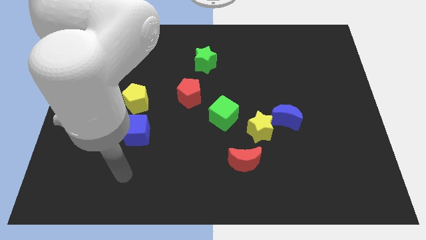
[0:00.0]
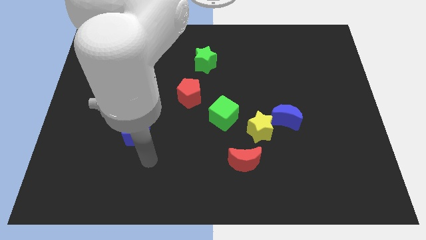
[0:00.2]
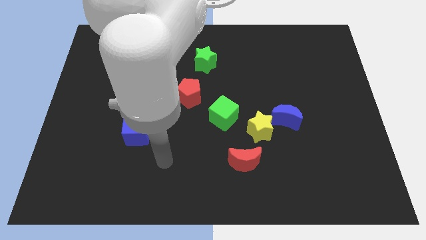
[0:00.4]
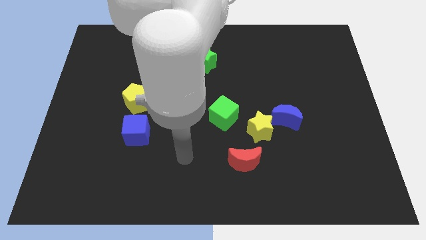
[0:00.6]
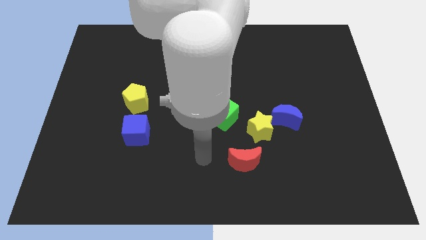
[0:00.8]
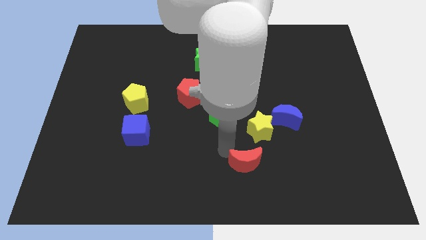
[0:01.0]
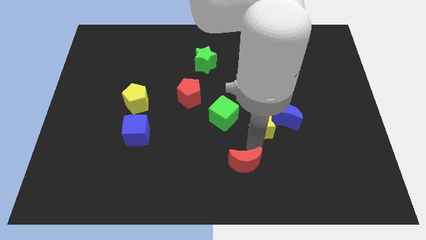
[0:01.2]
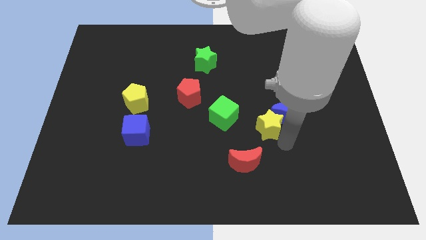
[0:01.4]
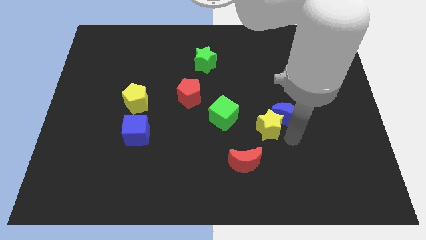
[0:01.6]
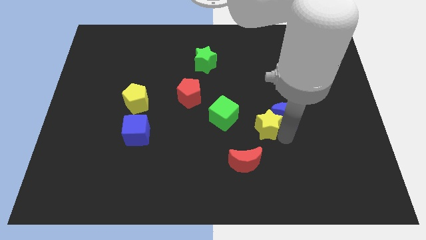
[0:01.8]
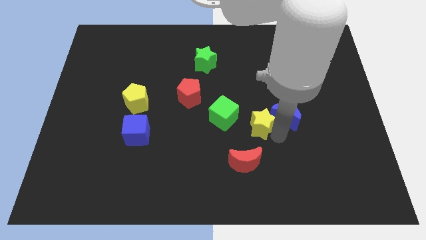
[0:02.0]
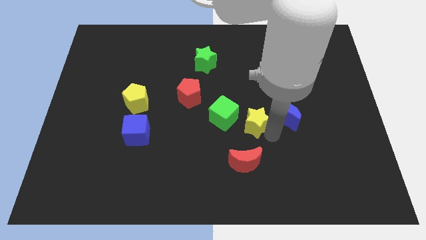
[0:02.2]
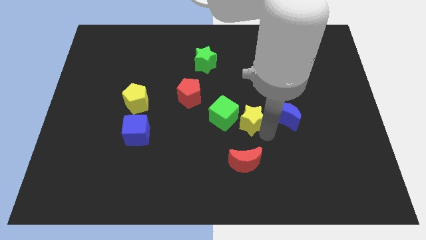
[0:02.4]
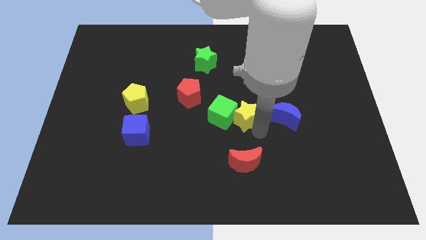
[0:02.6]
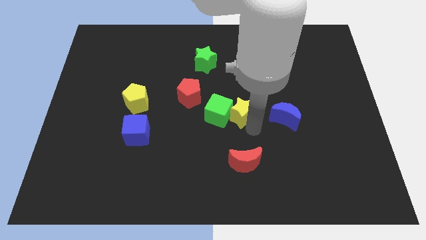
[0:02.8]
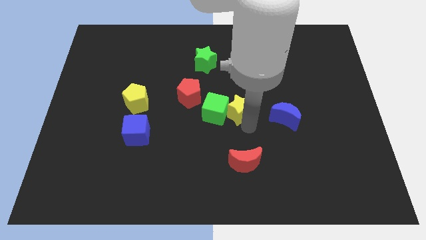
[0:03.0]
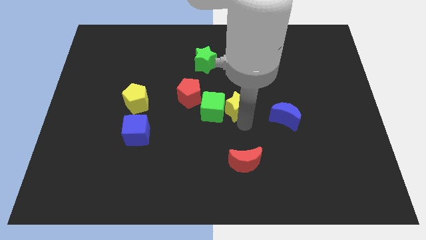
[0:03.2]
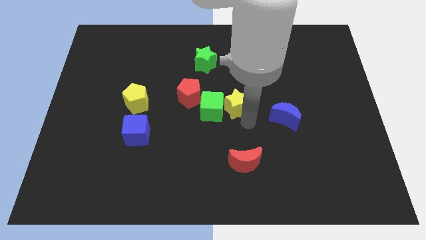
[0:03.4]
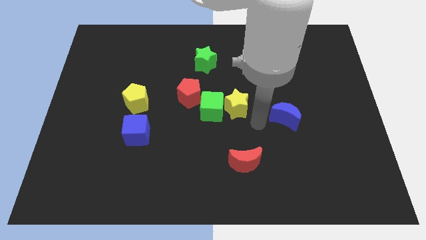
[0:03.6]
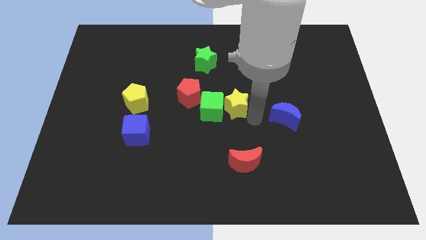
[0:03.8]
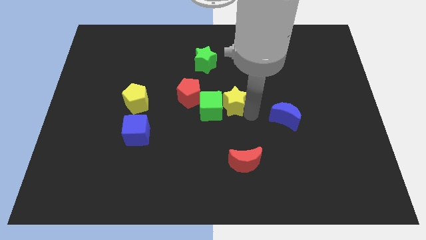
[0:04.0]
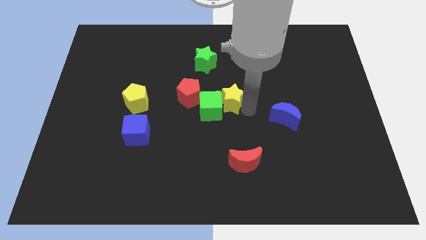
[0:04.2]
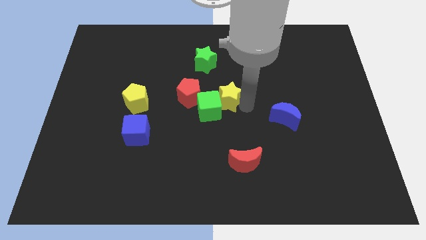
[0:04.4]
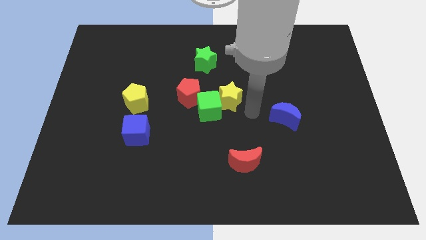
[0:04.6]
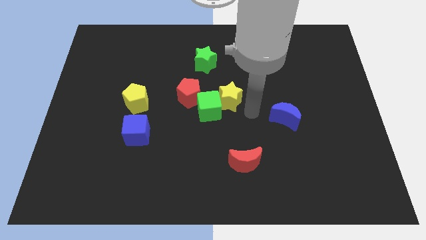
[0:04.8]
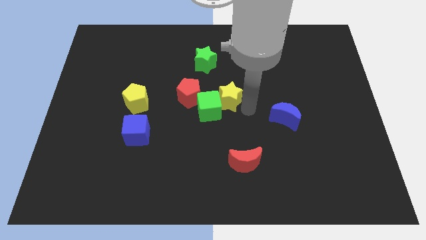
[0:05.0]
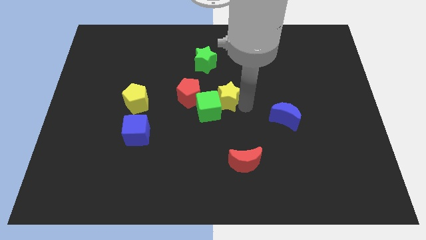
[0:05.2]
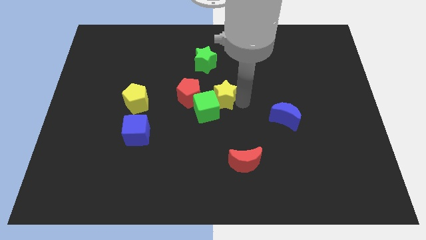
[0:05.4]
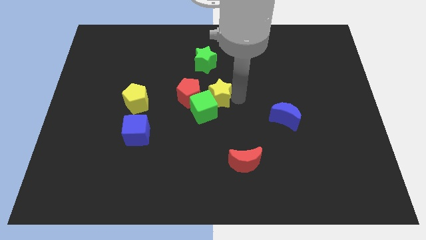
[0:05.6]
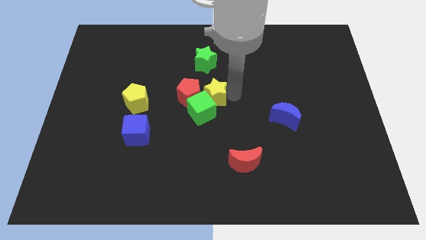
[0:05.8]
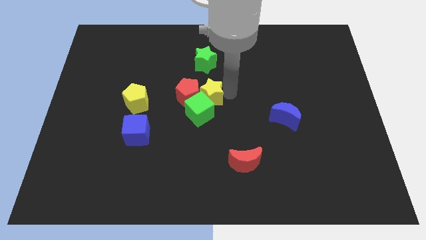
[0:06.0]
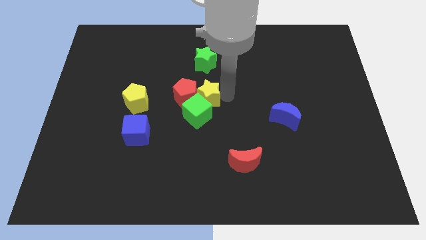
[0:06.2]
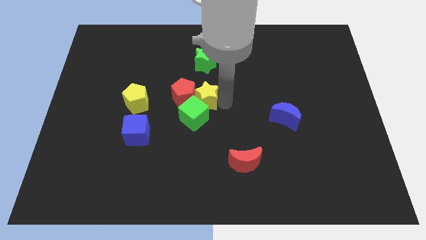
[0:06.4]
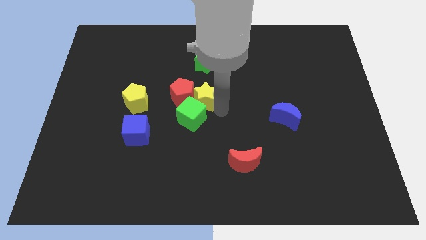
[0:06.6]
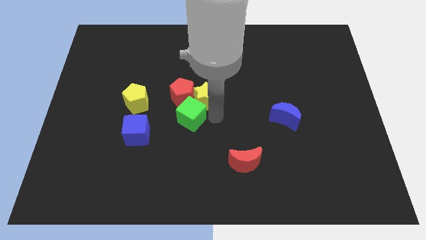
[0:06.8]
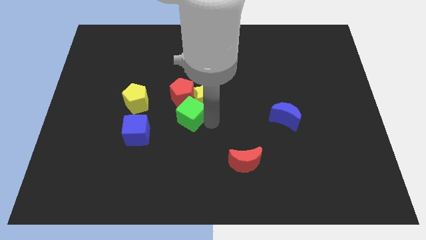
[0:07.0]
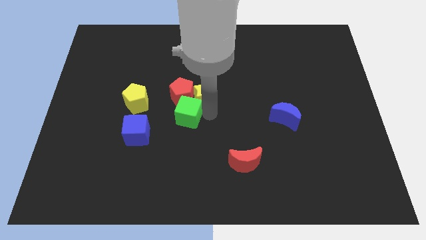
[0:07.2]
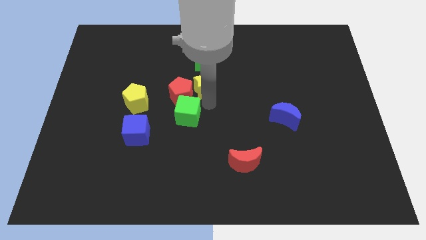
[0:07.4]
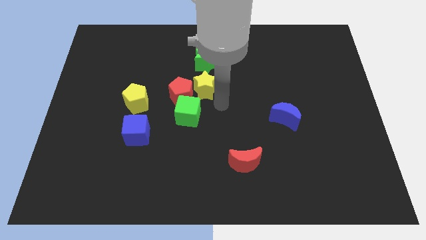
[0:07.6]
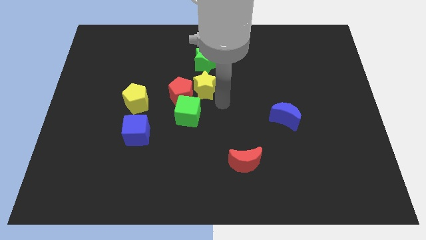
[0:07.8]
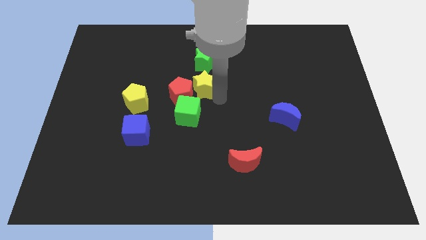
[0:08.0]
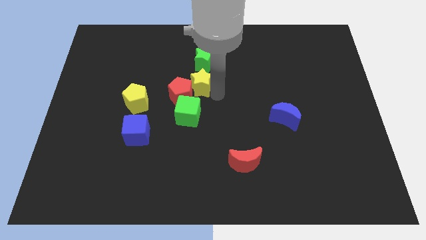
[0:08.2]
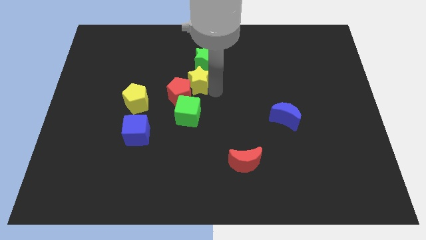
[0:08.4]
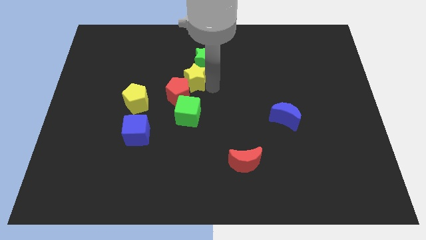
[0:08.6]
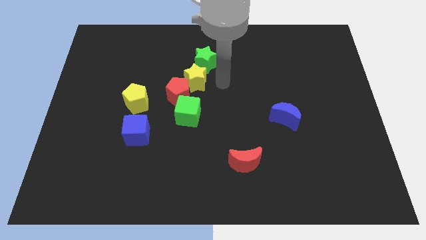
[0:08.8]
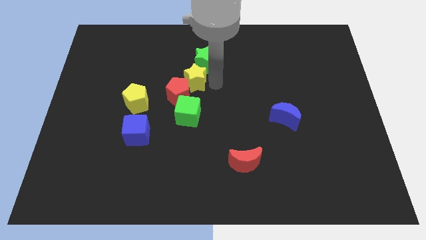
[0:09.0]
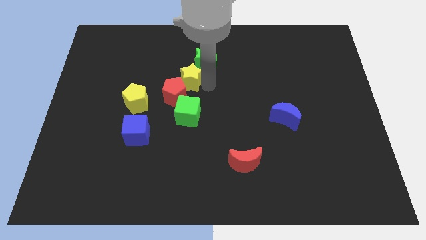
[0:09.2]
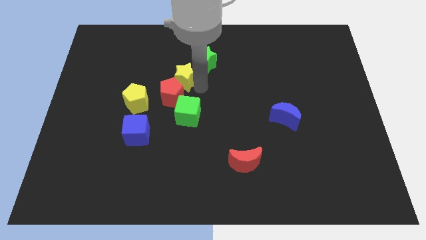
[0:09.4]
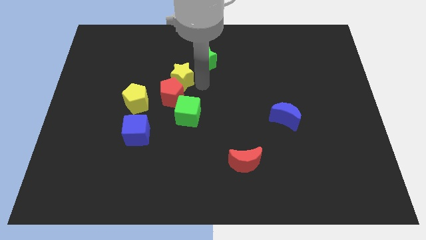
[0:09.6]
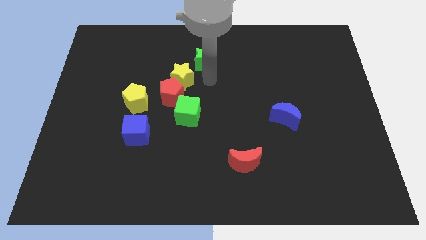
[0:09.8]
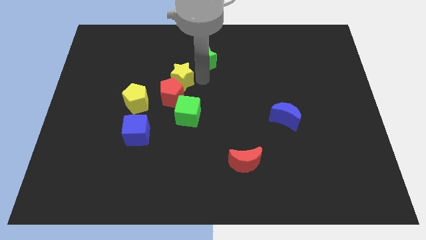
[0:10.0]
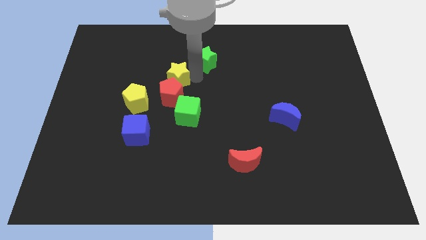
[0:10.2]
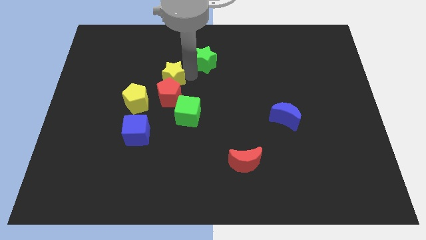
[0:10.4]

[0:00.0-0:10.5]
put the yellow star to the top left side of the red pentagon

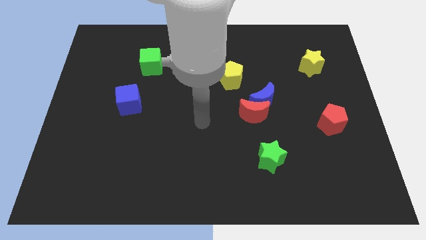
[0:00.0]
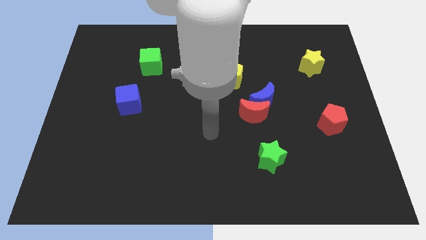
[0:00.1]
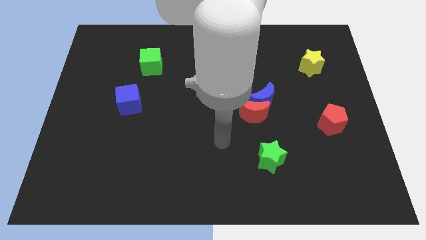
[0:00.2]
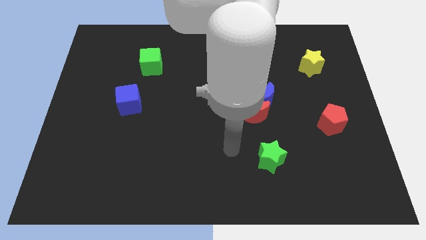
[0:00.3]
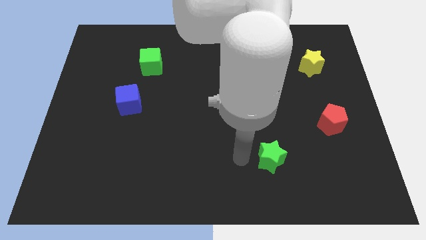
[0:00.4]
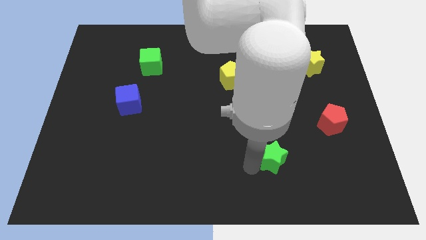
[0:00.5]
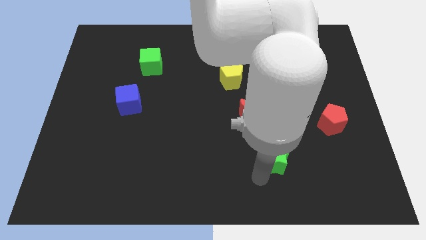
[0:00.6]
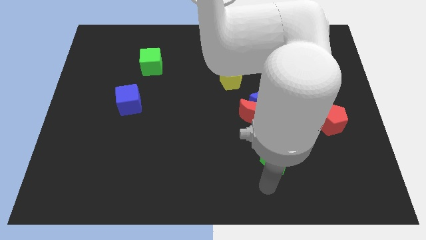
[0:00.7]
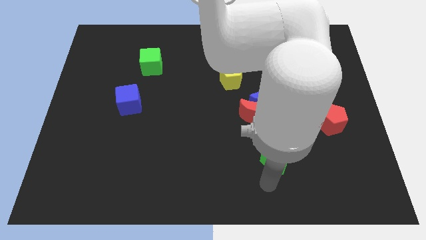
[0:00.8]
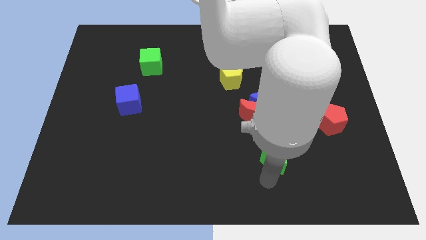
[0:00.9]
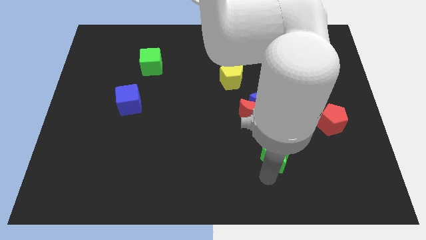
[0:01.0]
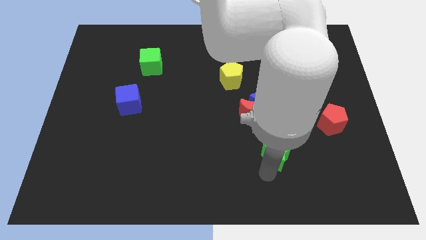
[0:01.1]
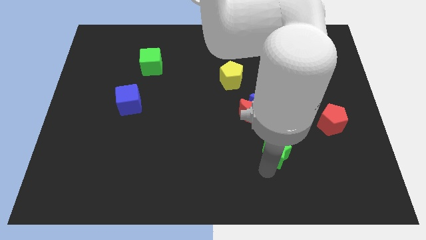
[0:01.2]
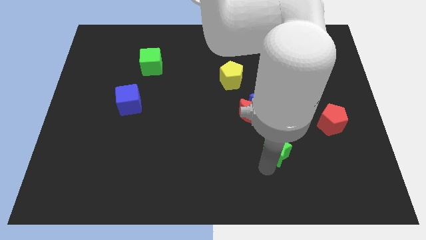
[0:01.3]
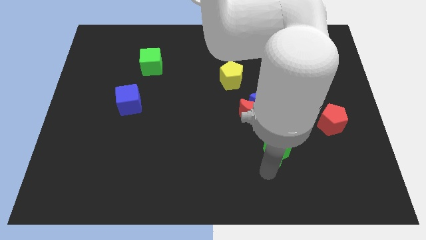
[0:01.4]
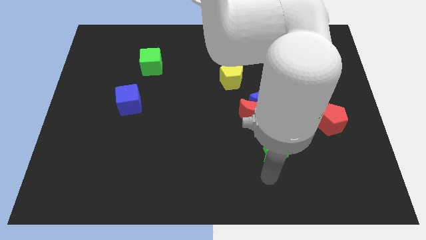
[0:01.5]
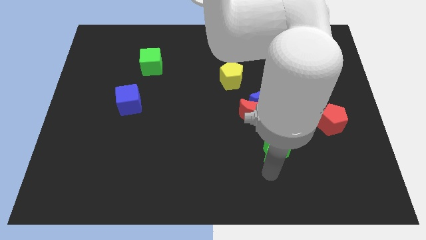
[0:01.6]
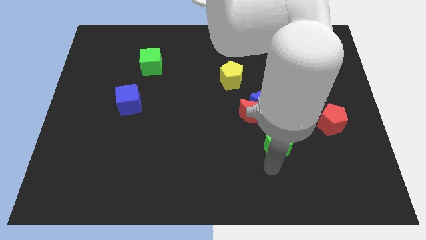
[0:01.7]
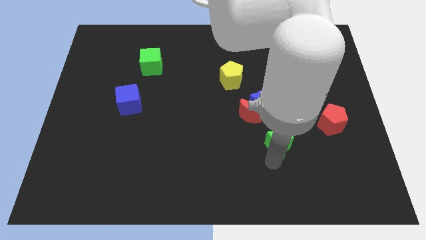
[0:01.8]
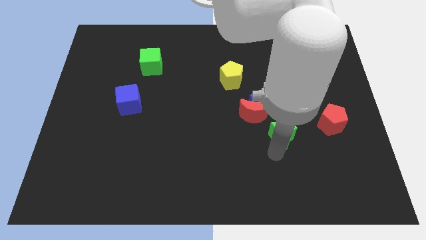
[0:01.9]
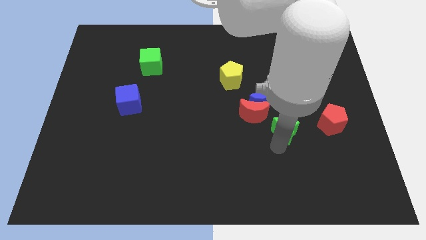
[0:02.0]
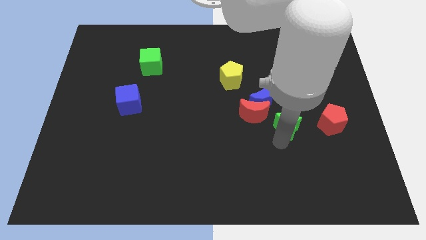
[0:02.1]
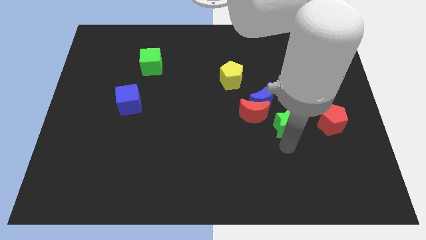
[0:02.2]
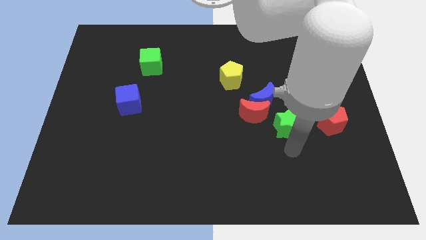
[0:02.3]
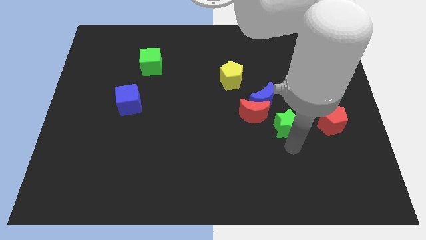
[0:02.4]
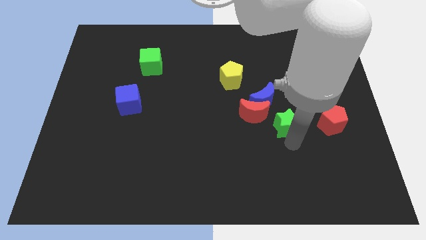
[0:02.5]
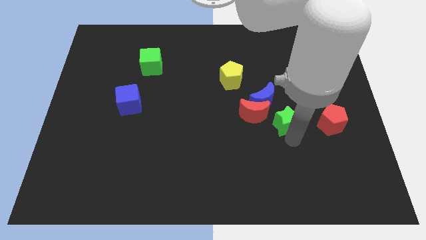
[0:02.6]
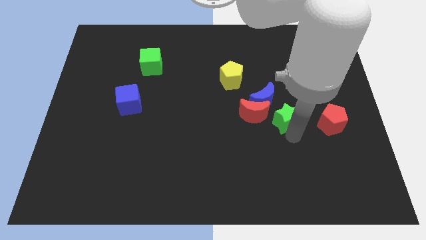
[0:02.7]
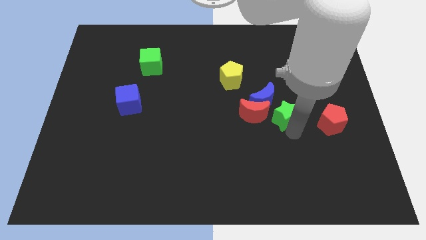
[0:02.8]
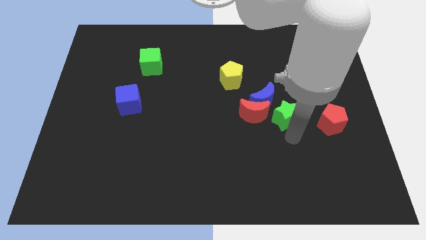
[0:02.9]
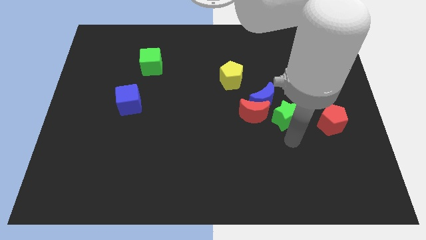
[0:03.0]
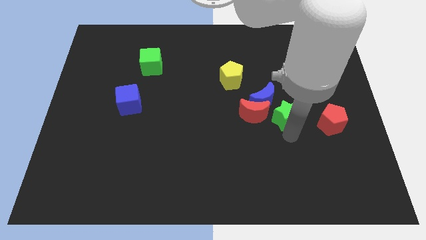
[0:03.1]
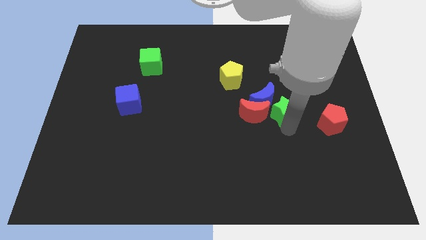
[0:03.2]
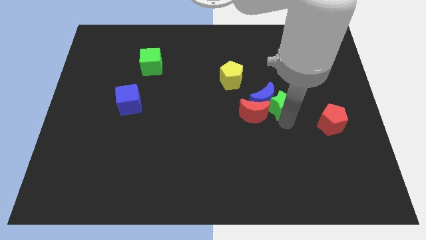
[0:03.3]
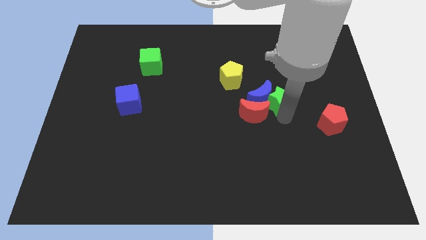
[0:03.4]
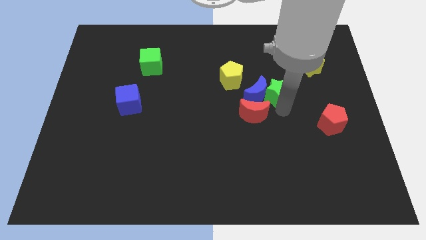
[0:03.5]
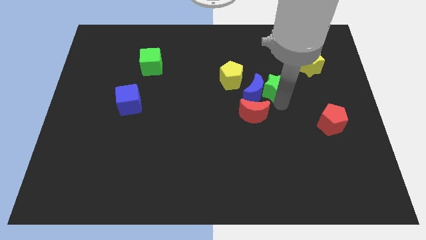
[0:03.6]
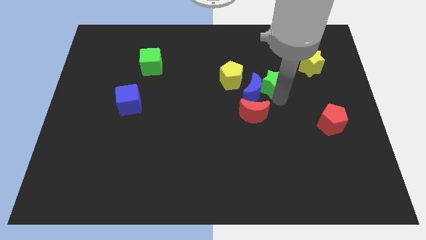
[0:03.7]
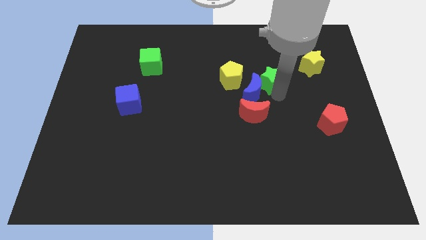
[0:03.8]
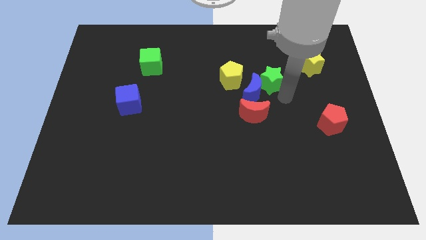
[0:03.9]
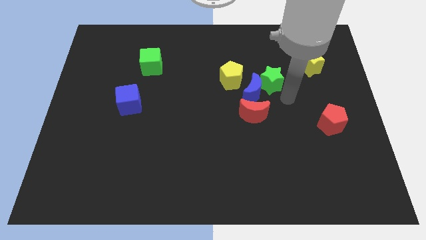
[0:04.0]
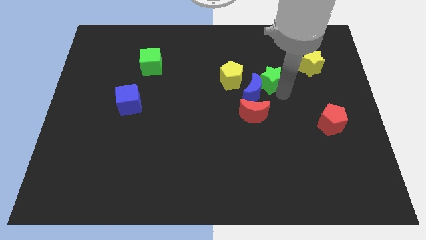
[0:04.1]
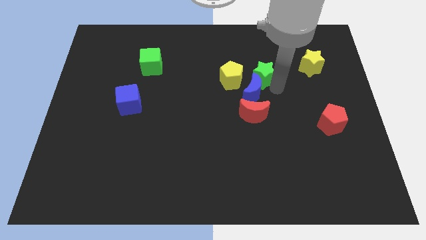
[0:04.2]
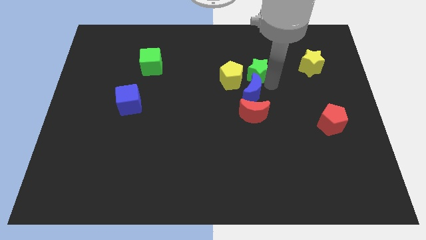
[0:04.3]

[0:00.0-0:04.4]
push the green star diagonally up and to the right of the yellow pentagon
